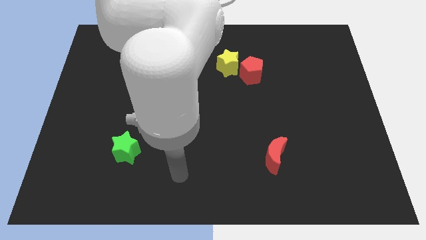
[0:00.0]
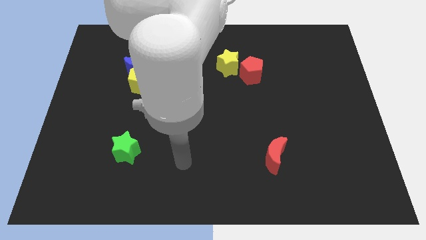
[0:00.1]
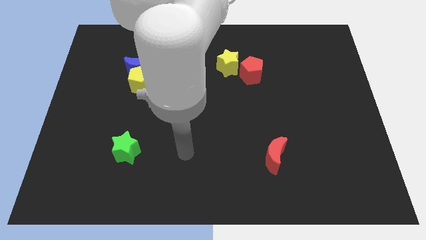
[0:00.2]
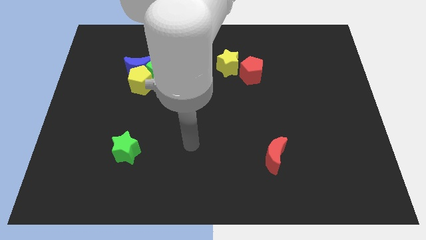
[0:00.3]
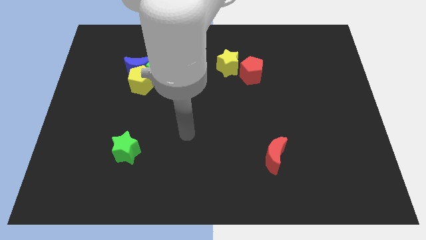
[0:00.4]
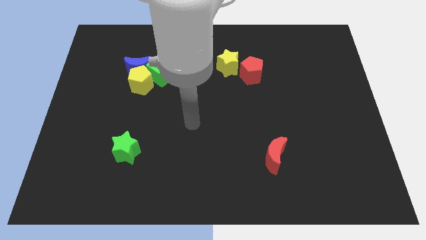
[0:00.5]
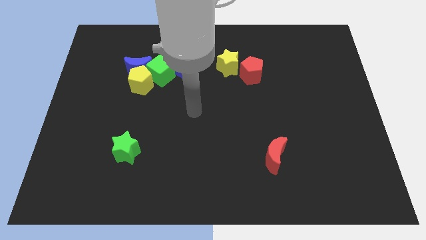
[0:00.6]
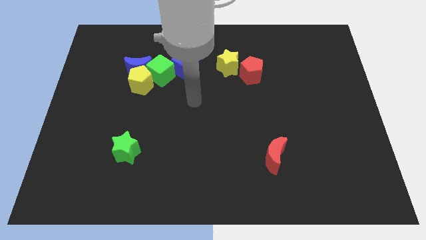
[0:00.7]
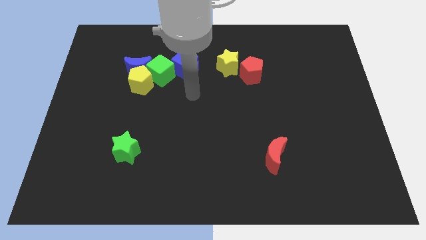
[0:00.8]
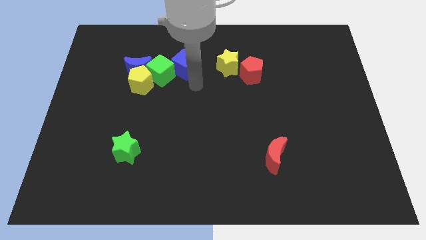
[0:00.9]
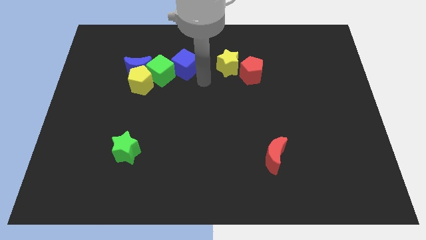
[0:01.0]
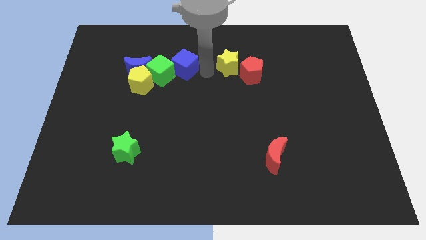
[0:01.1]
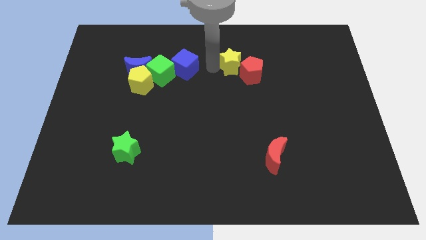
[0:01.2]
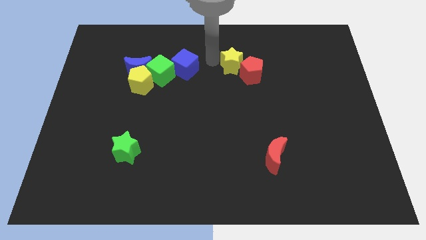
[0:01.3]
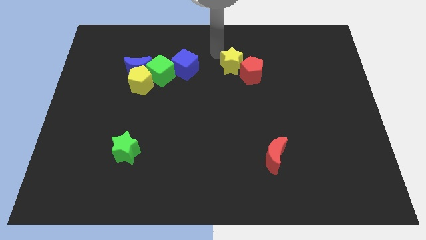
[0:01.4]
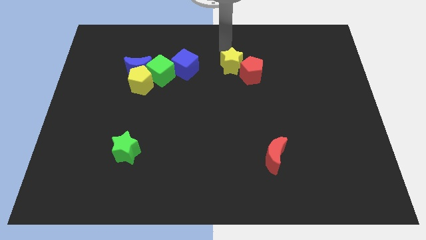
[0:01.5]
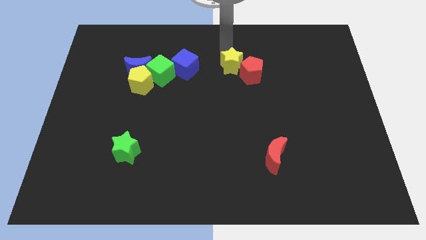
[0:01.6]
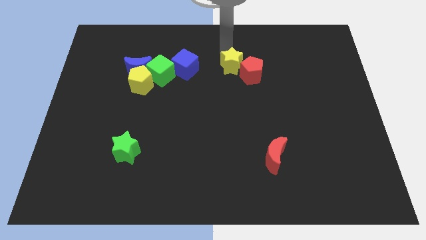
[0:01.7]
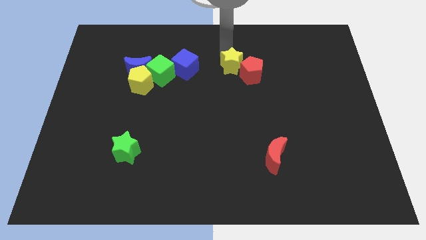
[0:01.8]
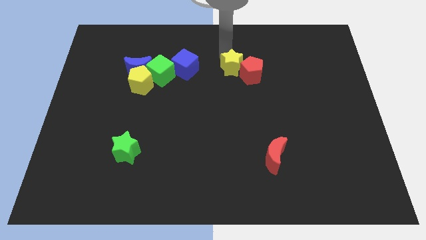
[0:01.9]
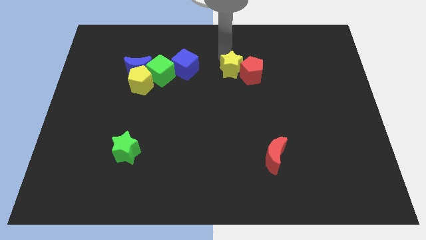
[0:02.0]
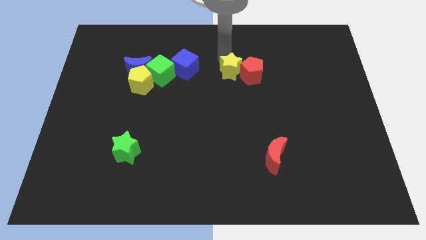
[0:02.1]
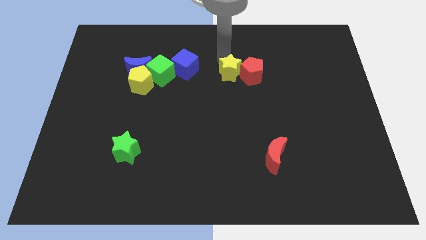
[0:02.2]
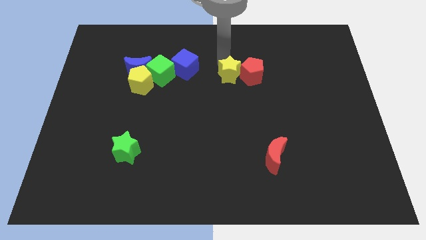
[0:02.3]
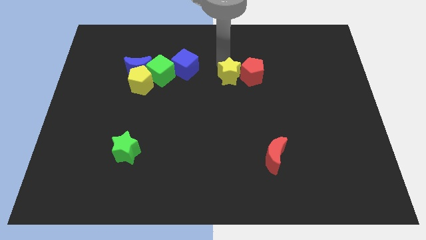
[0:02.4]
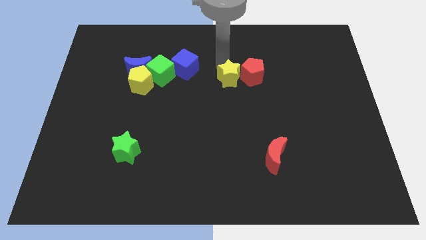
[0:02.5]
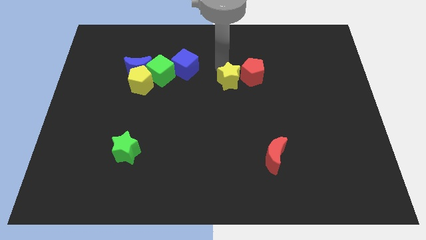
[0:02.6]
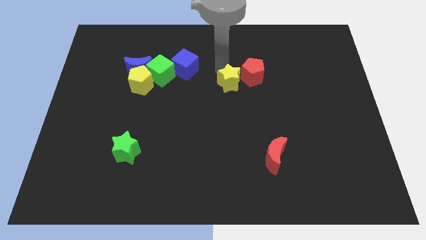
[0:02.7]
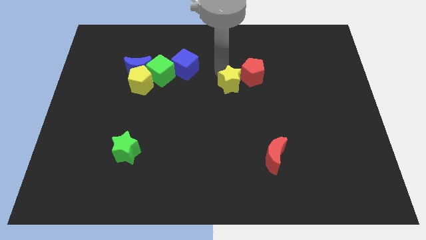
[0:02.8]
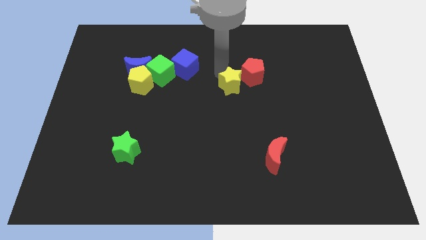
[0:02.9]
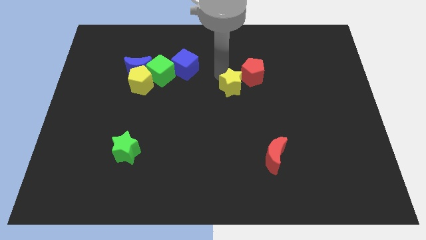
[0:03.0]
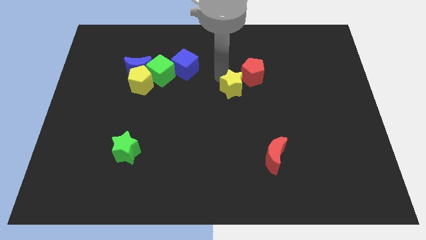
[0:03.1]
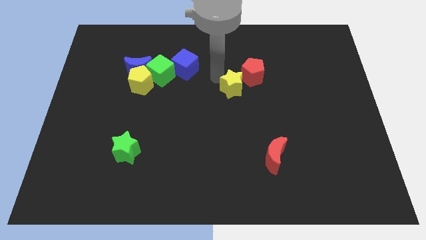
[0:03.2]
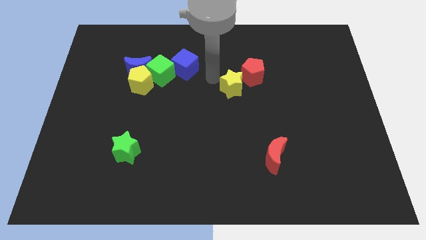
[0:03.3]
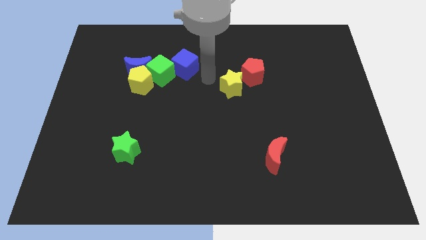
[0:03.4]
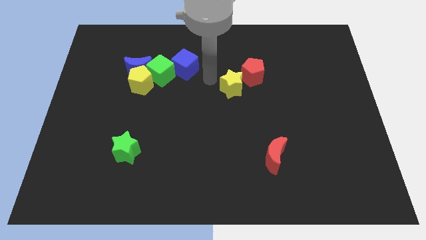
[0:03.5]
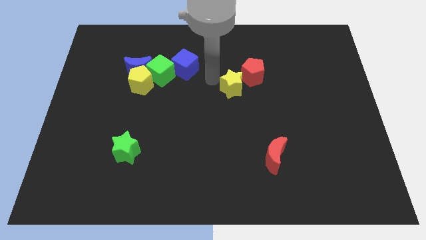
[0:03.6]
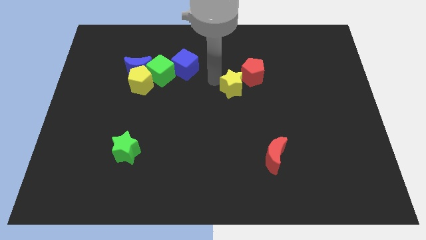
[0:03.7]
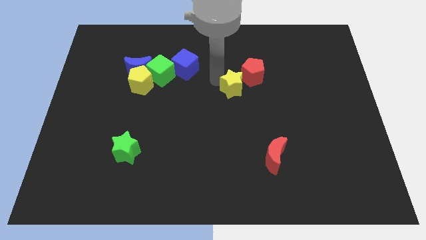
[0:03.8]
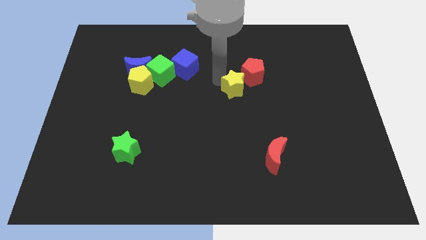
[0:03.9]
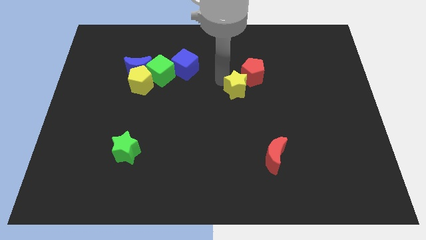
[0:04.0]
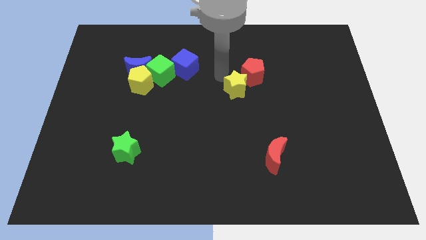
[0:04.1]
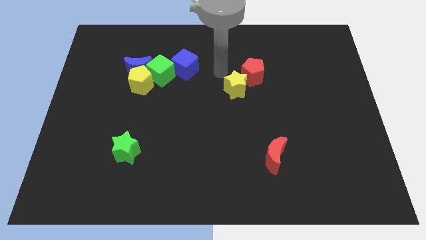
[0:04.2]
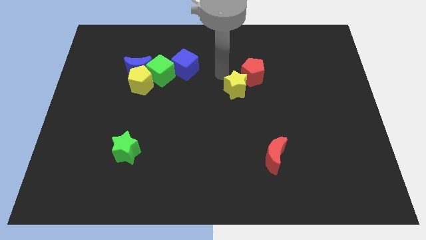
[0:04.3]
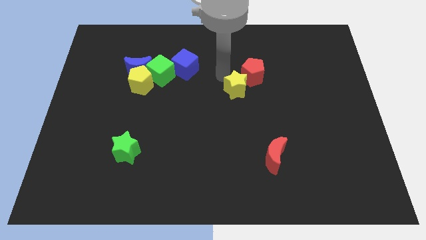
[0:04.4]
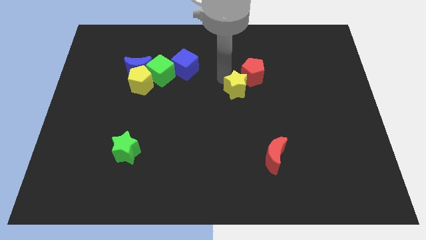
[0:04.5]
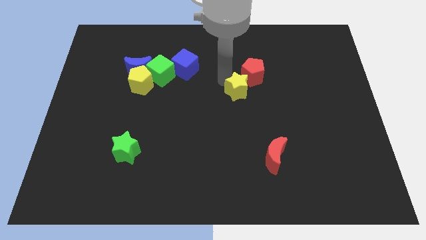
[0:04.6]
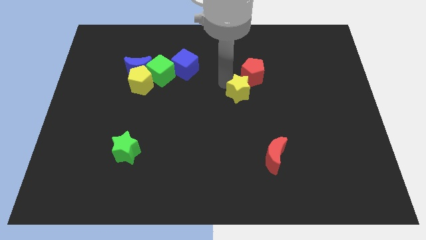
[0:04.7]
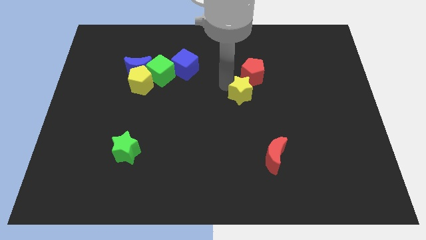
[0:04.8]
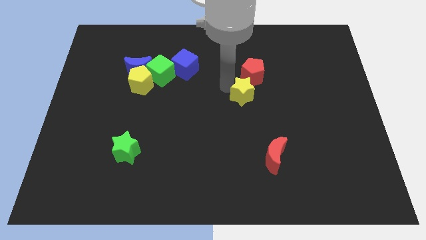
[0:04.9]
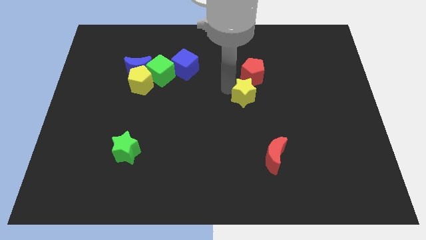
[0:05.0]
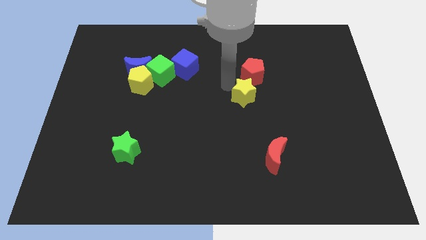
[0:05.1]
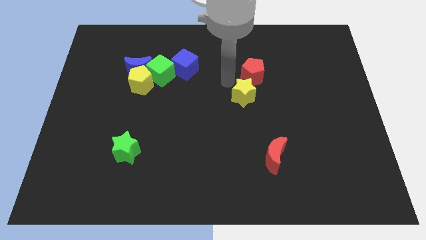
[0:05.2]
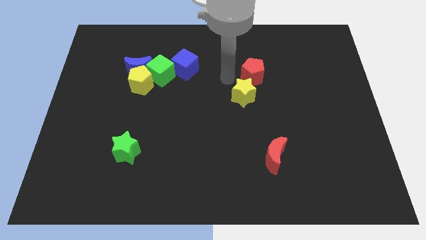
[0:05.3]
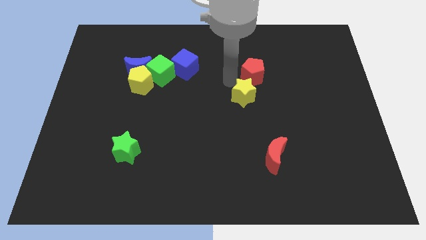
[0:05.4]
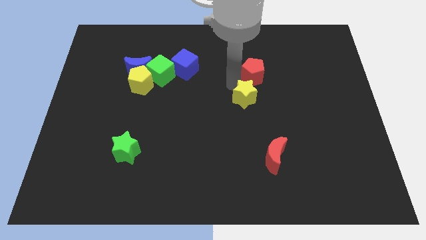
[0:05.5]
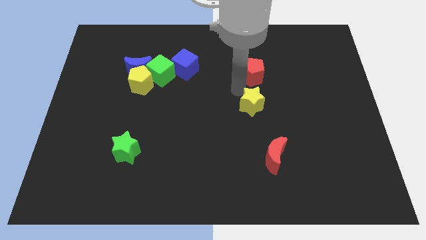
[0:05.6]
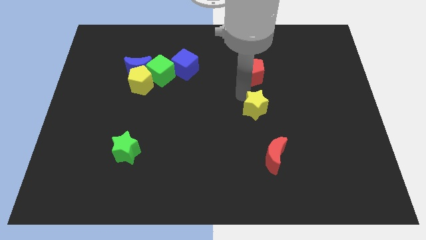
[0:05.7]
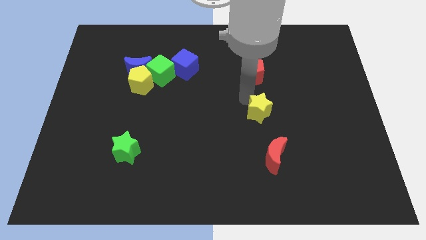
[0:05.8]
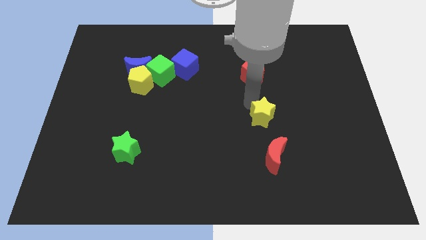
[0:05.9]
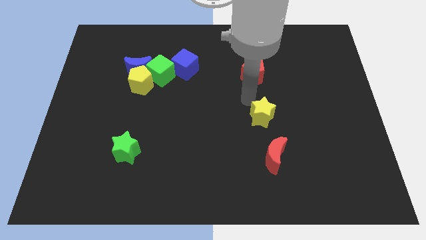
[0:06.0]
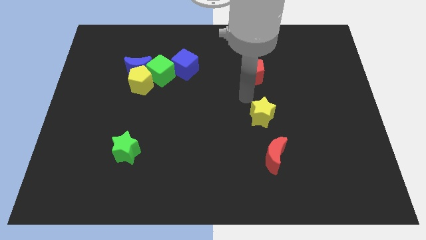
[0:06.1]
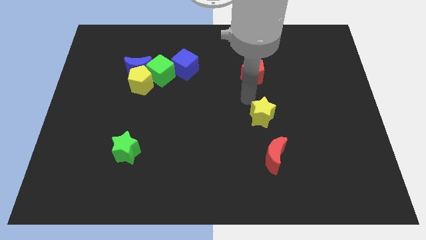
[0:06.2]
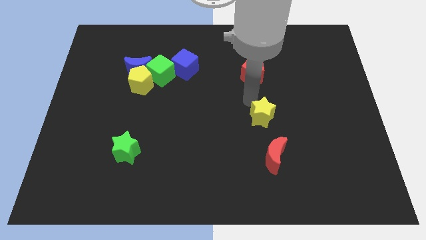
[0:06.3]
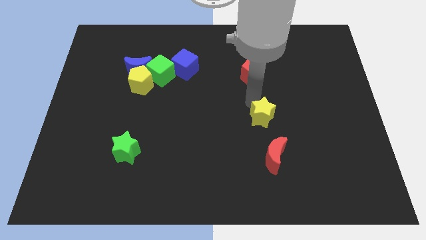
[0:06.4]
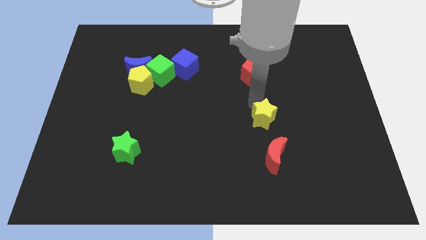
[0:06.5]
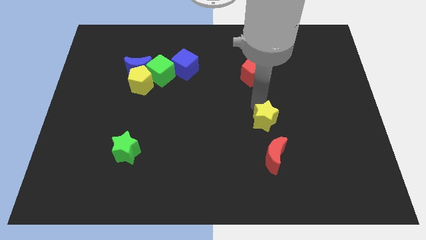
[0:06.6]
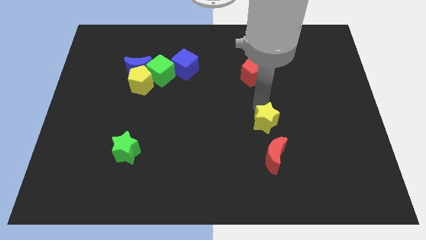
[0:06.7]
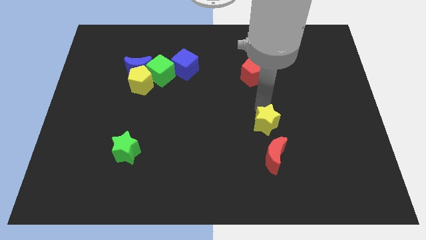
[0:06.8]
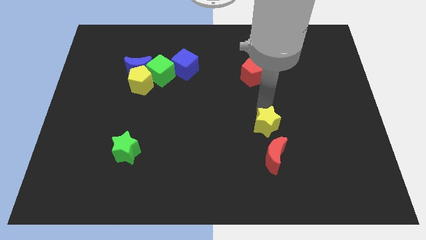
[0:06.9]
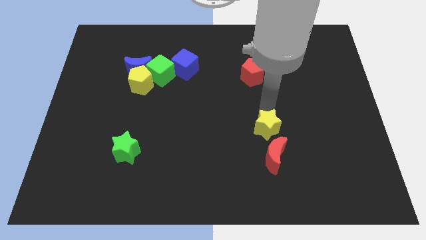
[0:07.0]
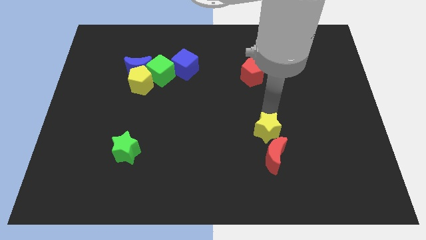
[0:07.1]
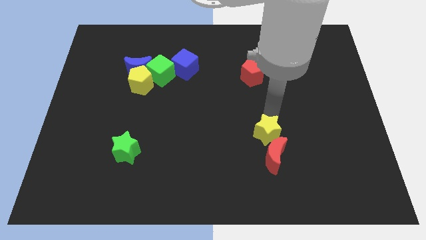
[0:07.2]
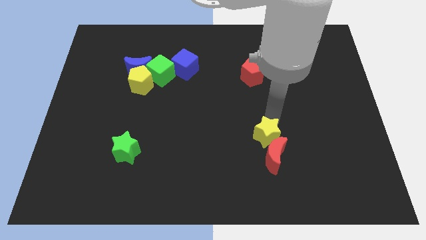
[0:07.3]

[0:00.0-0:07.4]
move the yellow star towards the red moon

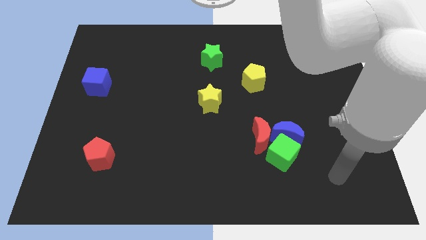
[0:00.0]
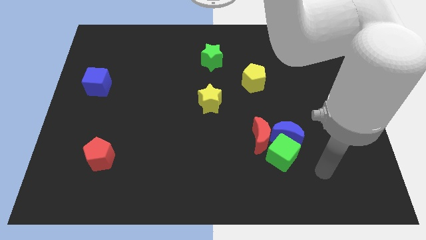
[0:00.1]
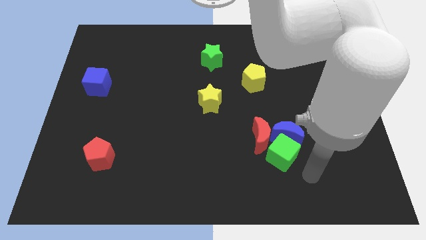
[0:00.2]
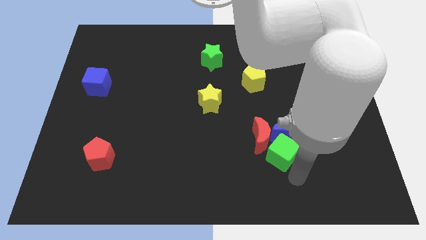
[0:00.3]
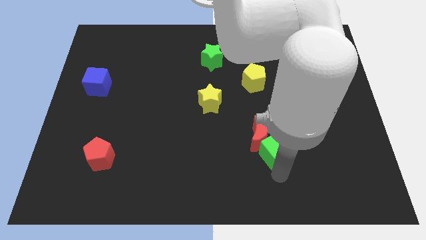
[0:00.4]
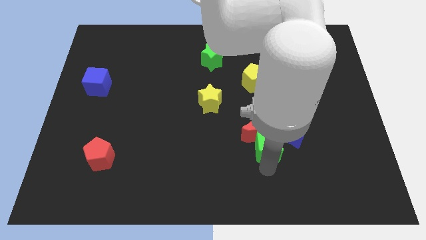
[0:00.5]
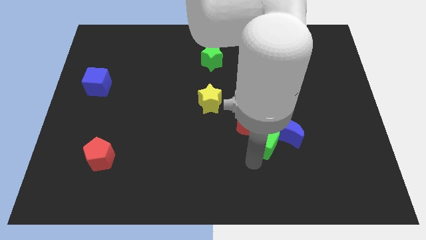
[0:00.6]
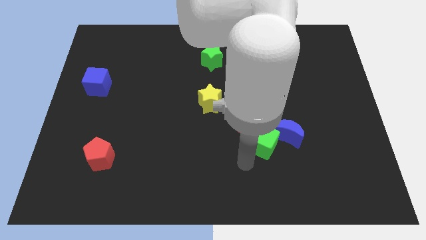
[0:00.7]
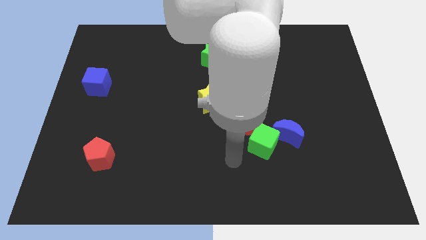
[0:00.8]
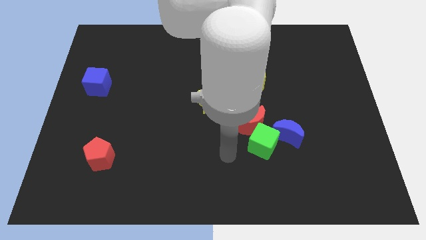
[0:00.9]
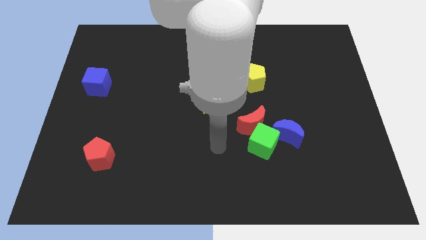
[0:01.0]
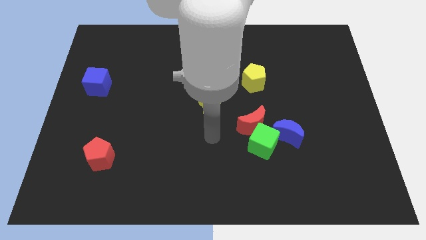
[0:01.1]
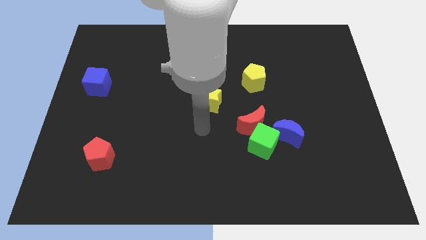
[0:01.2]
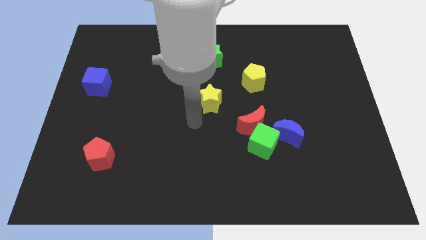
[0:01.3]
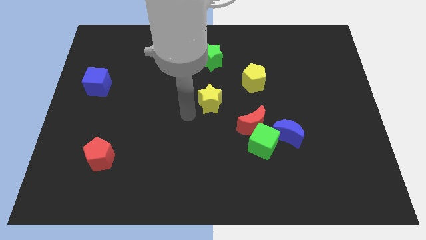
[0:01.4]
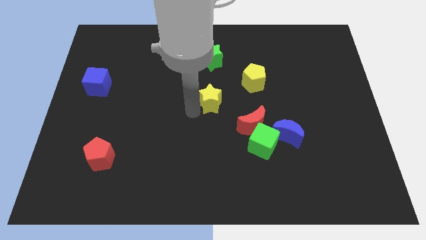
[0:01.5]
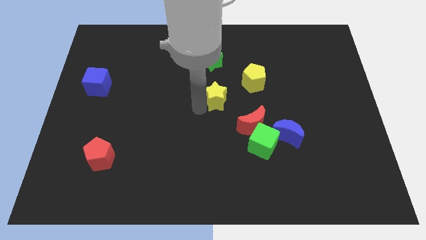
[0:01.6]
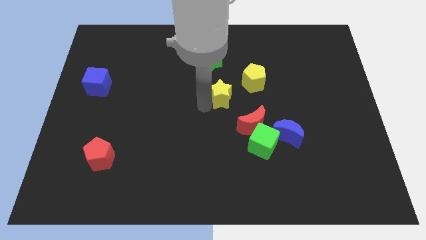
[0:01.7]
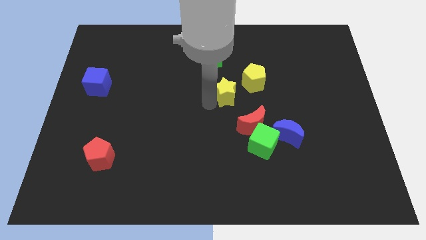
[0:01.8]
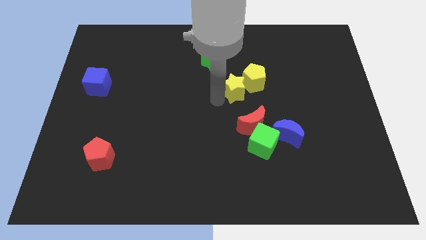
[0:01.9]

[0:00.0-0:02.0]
push the yellow star close to the yellow pentagon
